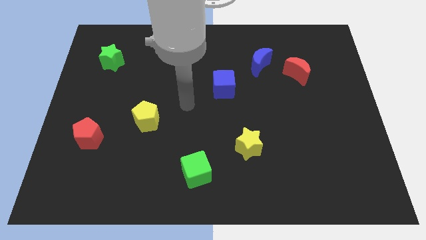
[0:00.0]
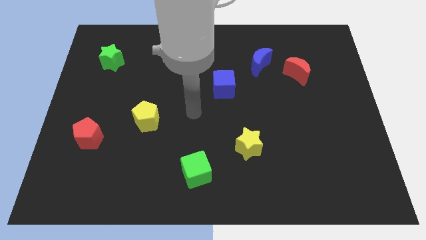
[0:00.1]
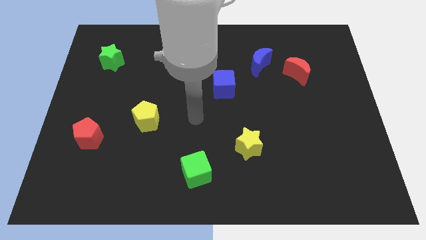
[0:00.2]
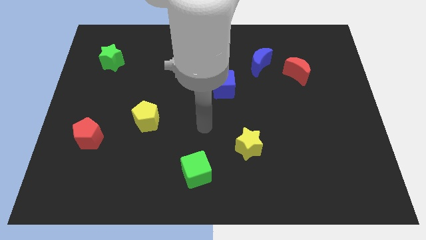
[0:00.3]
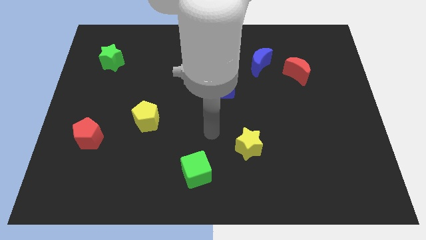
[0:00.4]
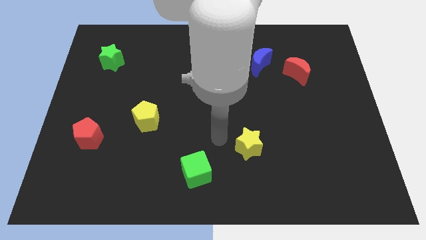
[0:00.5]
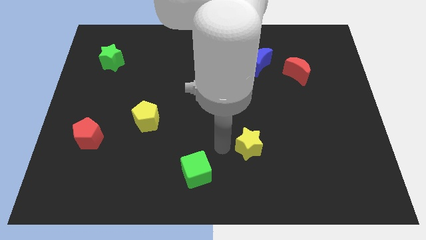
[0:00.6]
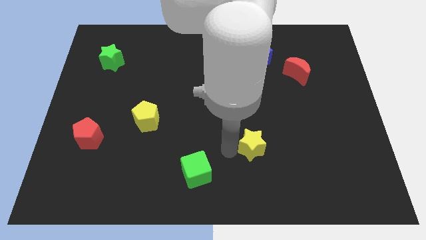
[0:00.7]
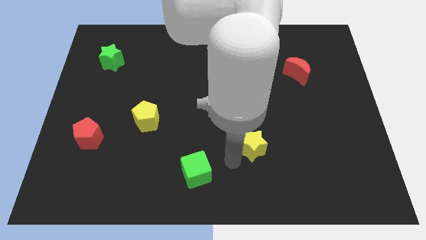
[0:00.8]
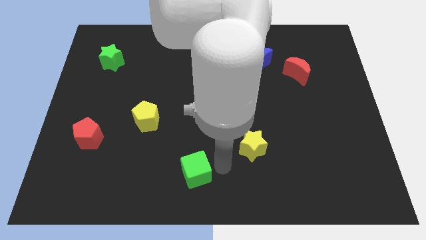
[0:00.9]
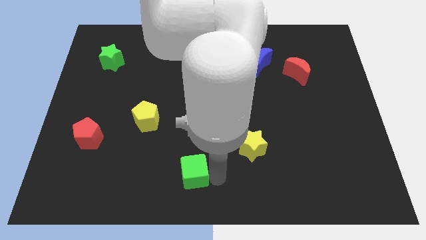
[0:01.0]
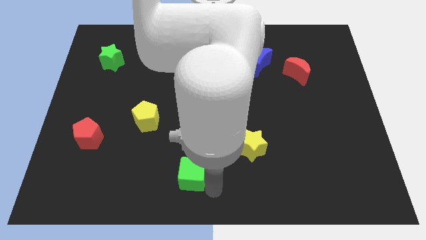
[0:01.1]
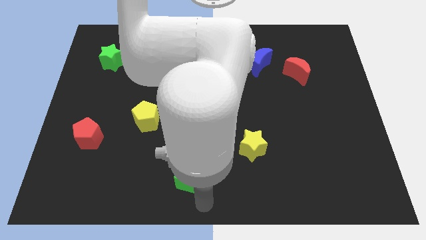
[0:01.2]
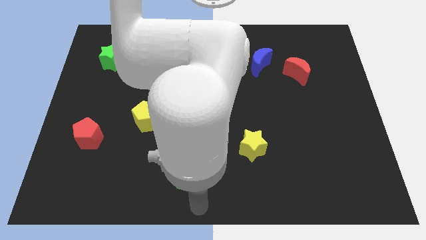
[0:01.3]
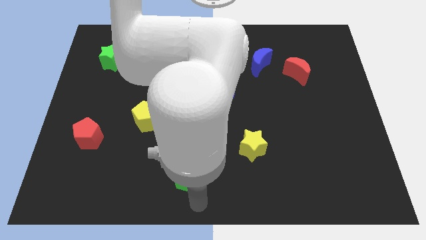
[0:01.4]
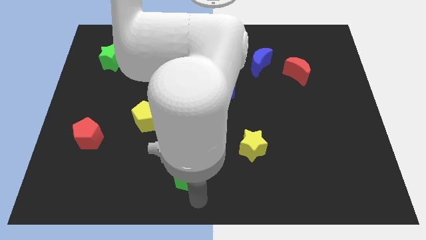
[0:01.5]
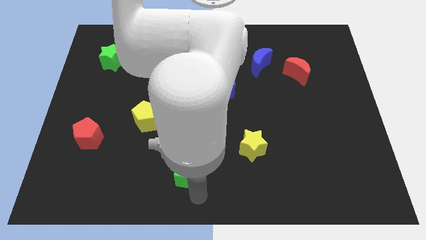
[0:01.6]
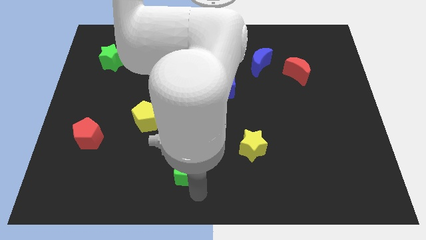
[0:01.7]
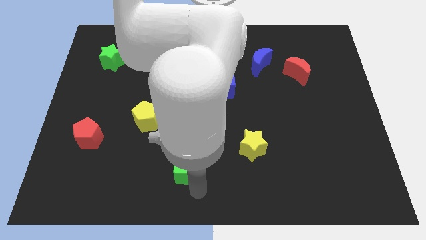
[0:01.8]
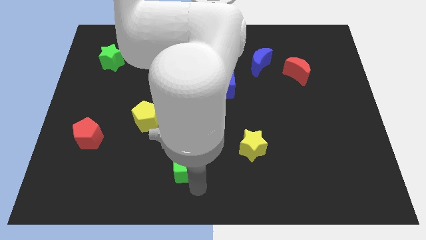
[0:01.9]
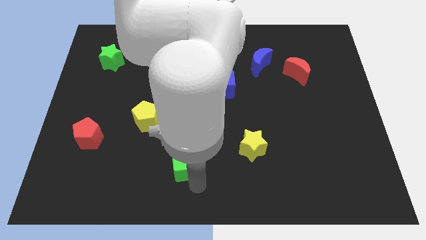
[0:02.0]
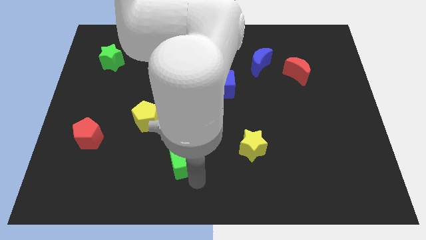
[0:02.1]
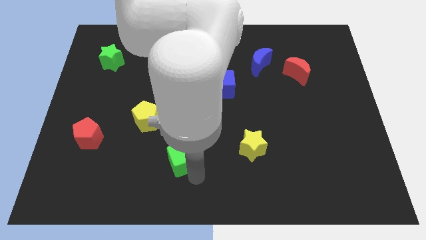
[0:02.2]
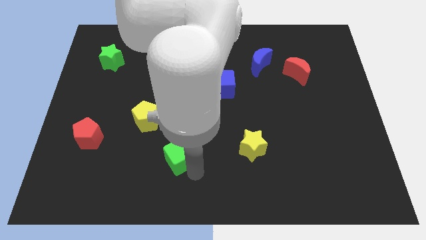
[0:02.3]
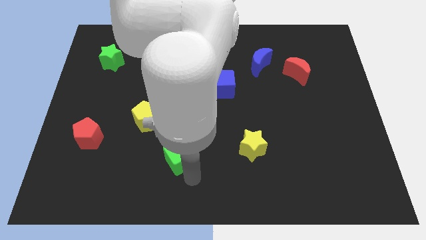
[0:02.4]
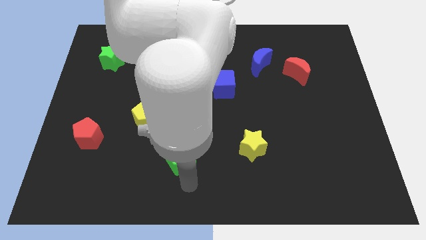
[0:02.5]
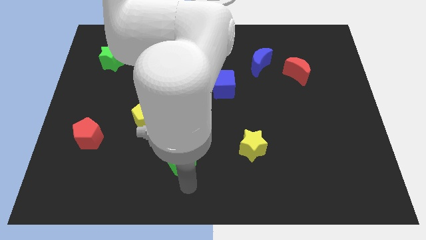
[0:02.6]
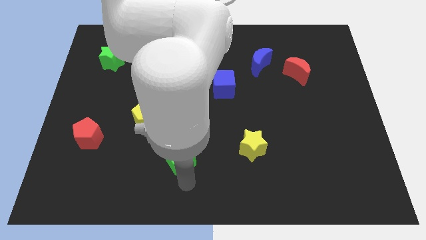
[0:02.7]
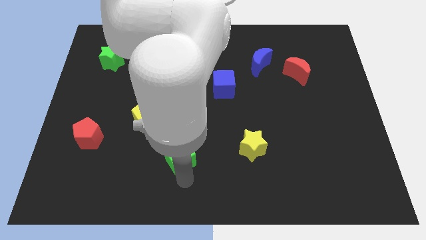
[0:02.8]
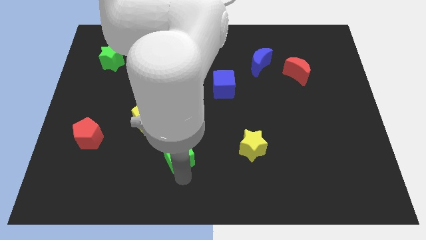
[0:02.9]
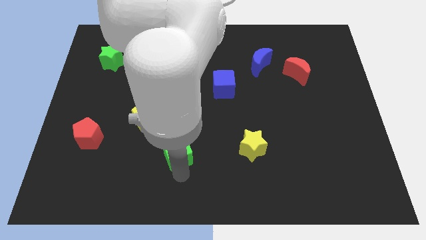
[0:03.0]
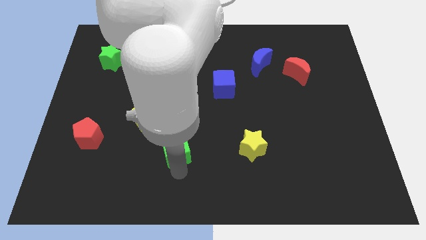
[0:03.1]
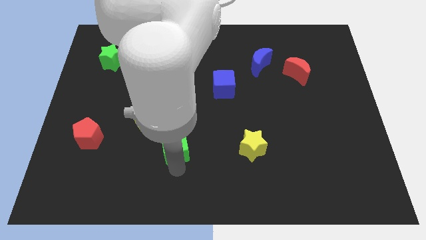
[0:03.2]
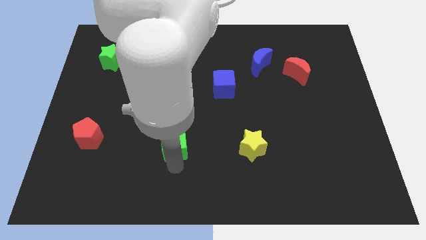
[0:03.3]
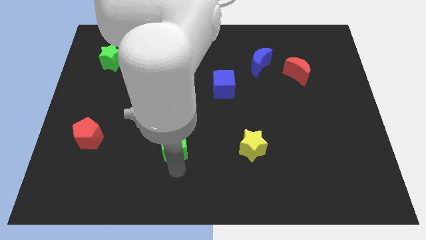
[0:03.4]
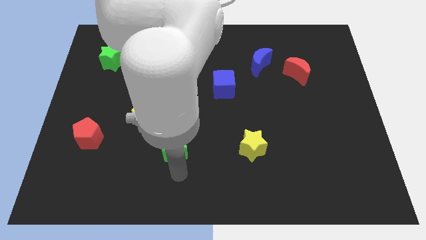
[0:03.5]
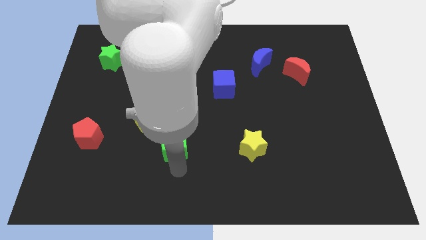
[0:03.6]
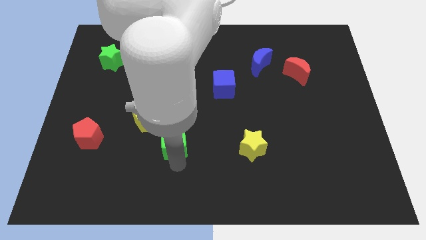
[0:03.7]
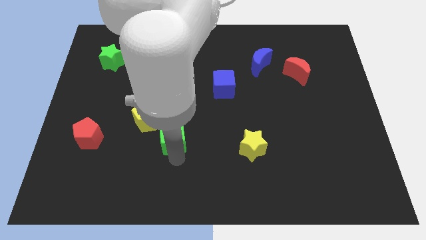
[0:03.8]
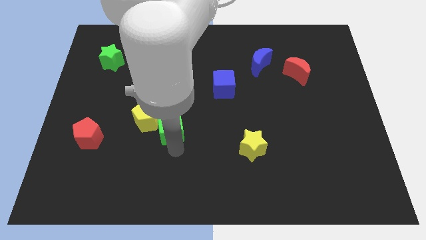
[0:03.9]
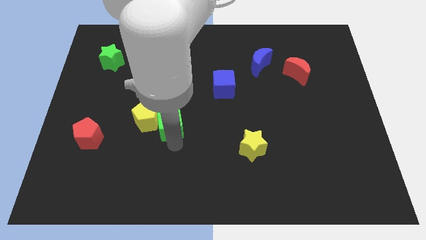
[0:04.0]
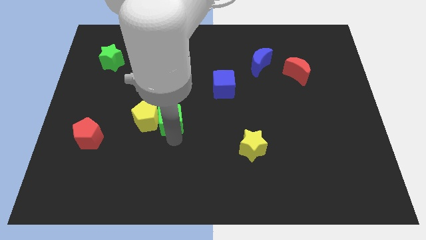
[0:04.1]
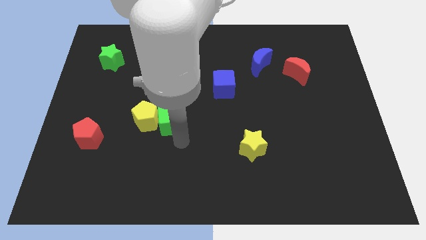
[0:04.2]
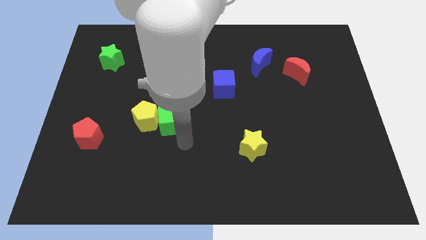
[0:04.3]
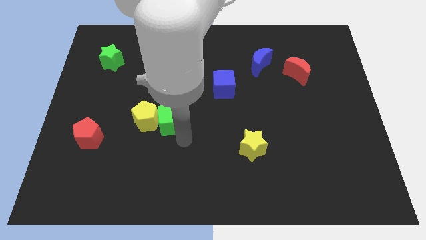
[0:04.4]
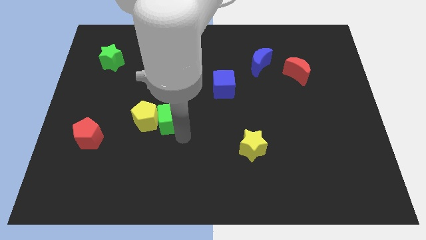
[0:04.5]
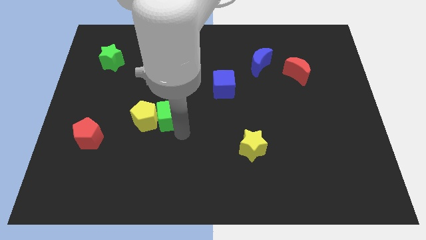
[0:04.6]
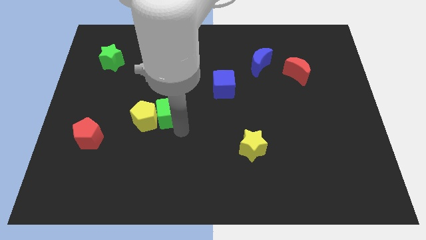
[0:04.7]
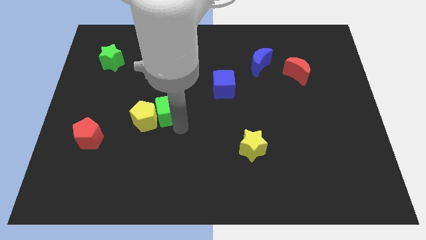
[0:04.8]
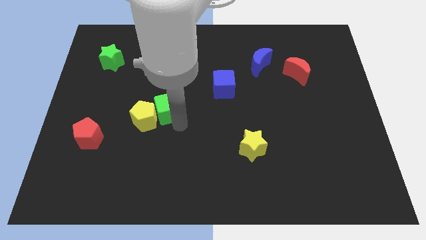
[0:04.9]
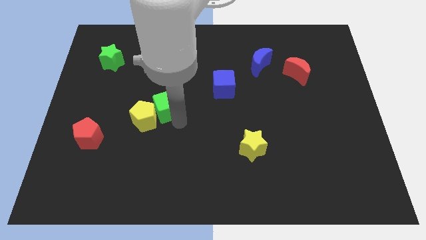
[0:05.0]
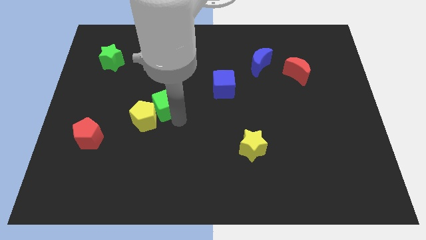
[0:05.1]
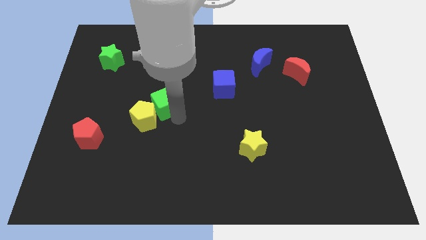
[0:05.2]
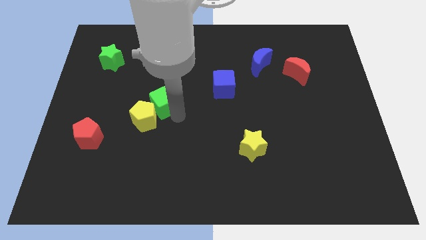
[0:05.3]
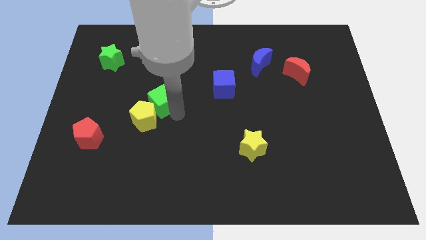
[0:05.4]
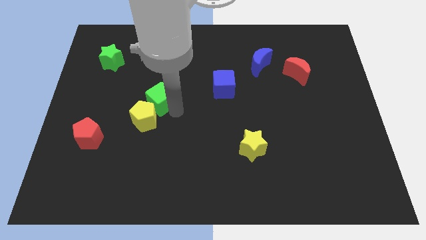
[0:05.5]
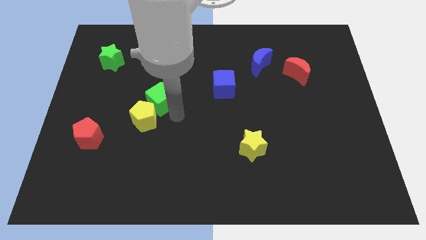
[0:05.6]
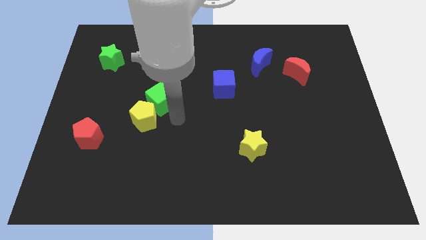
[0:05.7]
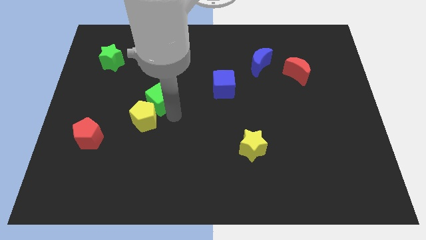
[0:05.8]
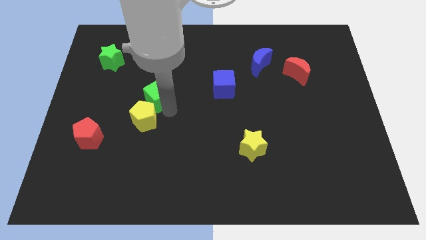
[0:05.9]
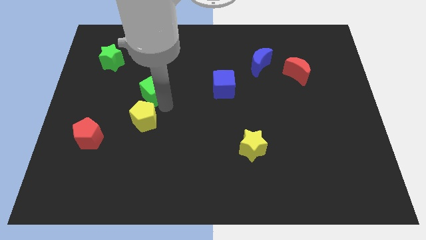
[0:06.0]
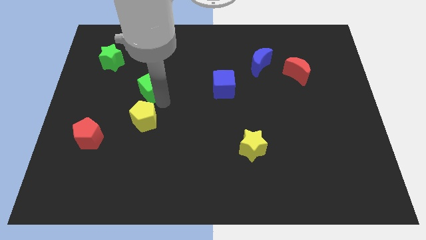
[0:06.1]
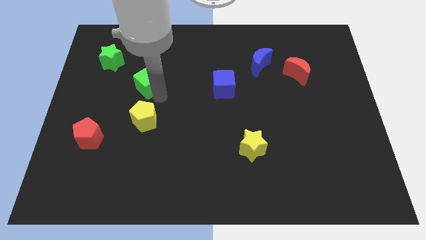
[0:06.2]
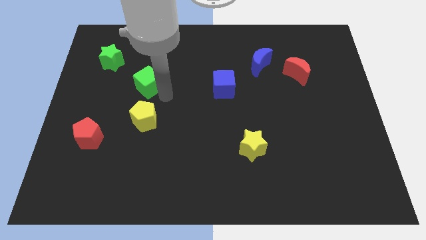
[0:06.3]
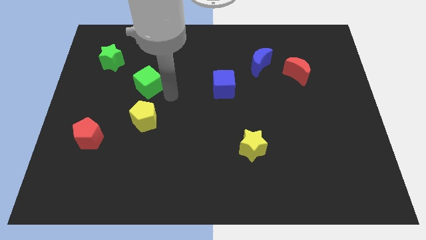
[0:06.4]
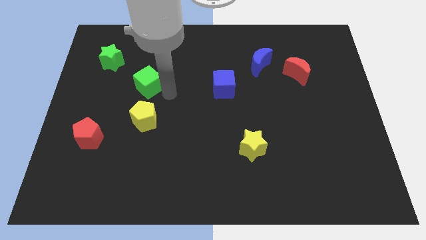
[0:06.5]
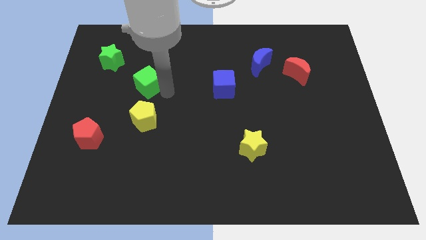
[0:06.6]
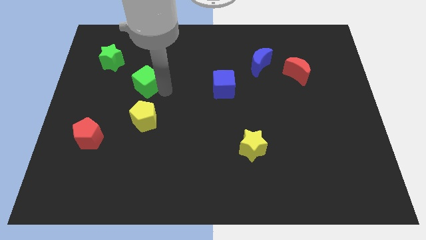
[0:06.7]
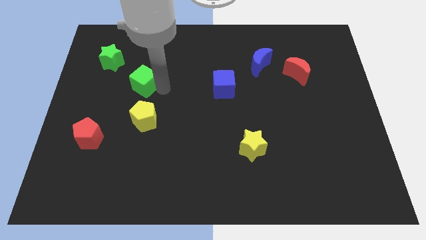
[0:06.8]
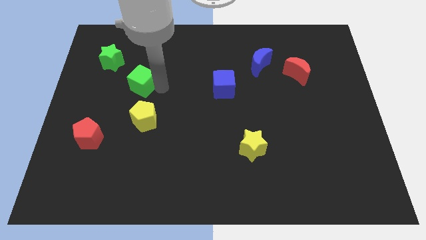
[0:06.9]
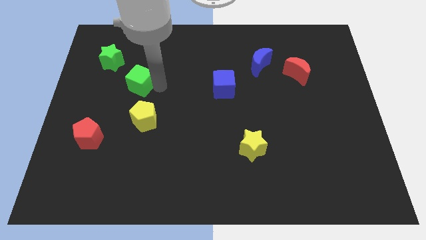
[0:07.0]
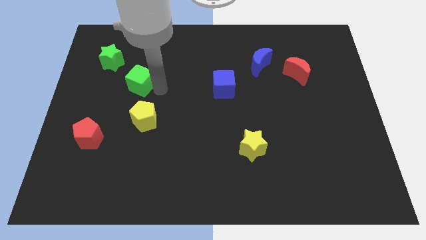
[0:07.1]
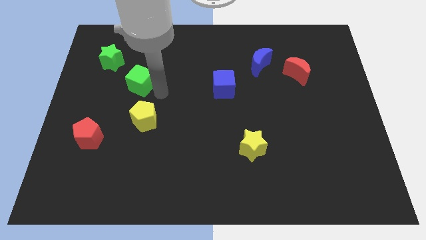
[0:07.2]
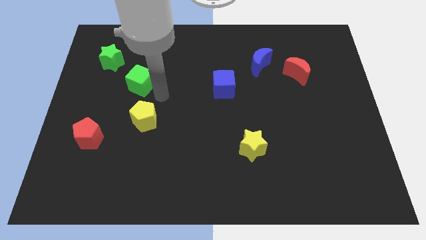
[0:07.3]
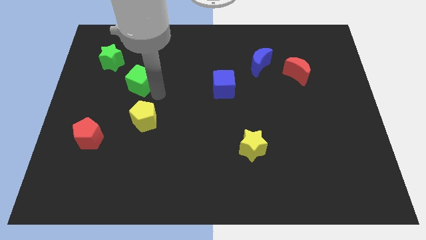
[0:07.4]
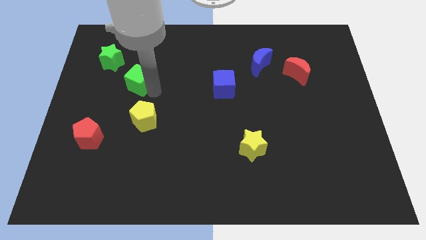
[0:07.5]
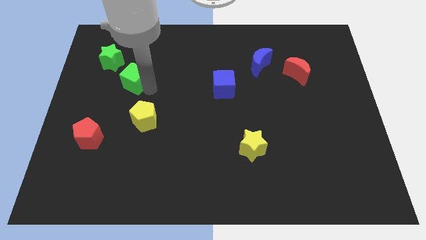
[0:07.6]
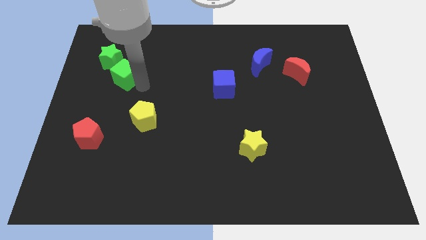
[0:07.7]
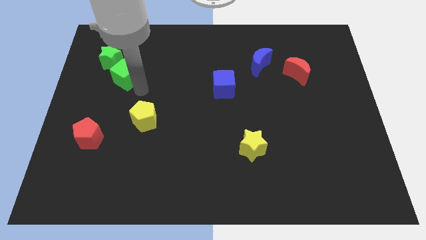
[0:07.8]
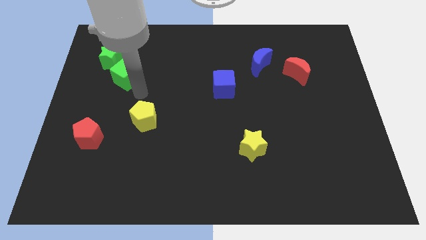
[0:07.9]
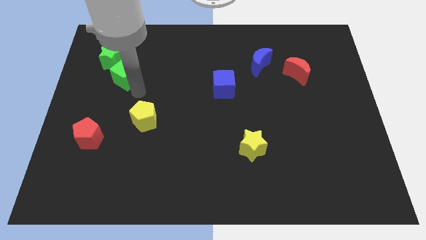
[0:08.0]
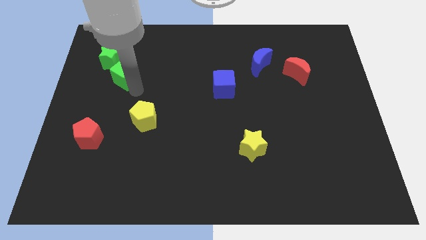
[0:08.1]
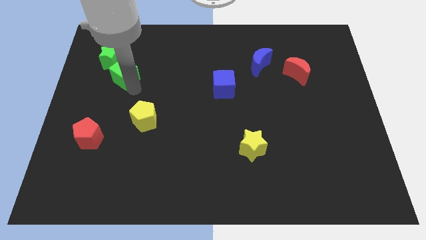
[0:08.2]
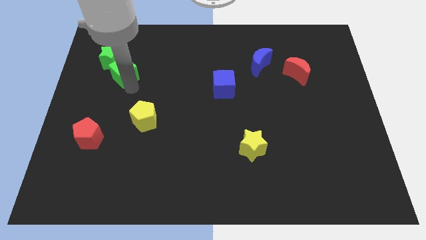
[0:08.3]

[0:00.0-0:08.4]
slide the green cube to the green star
